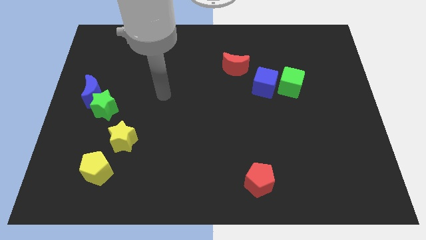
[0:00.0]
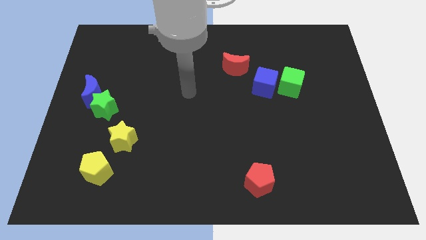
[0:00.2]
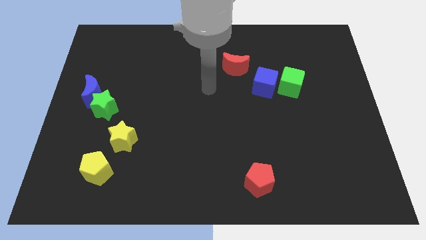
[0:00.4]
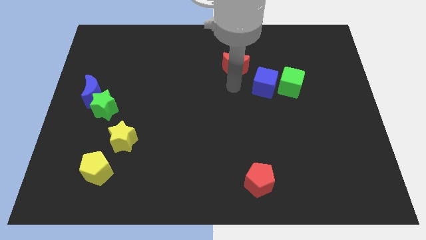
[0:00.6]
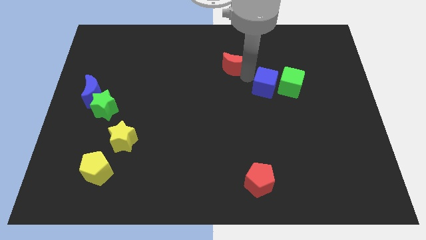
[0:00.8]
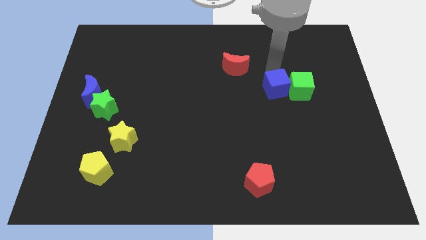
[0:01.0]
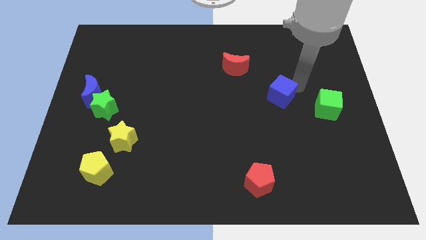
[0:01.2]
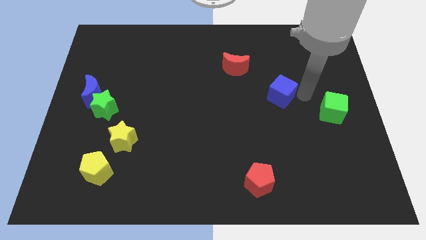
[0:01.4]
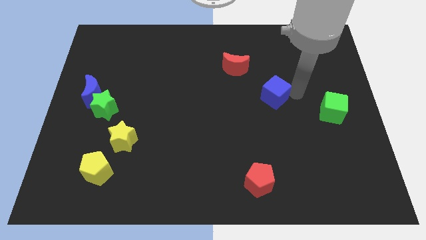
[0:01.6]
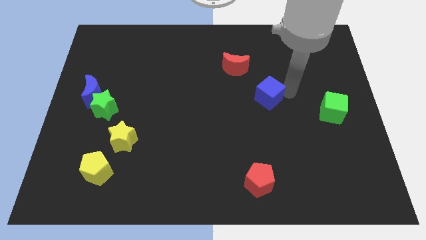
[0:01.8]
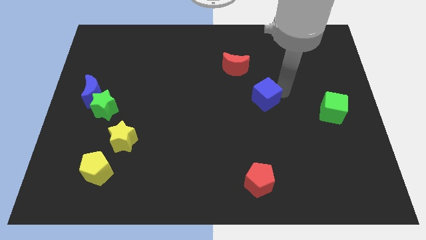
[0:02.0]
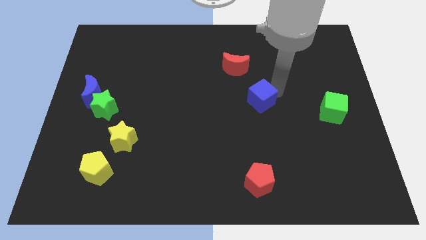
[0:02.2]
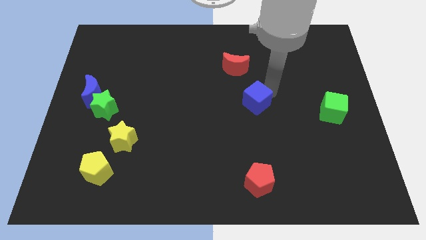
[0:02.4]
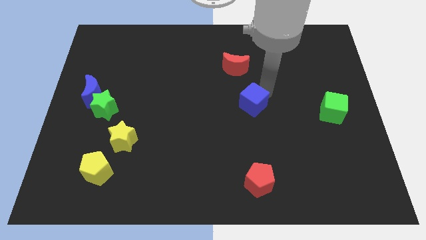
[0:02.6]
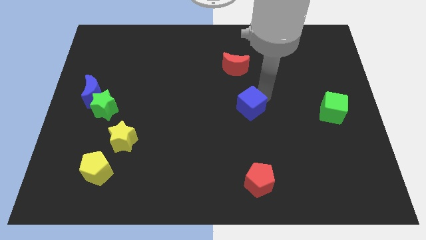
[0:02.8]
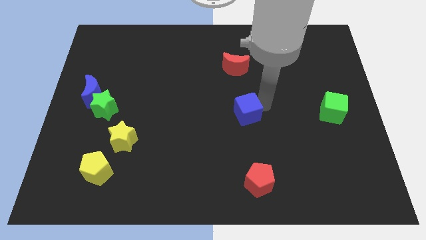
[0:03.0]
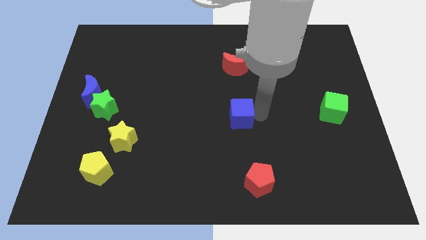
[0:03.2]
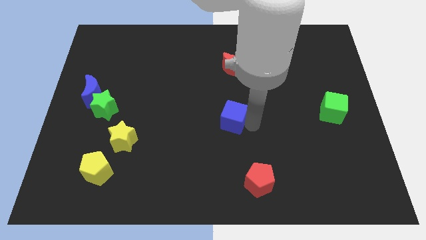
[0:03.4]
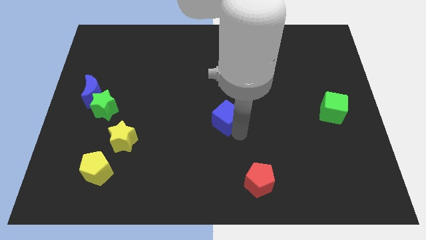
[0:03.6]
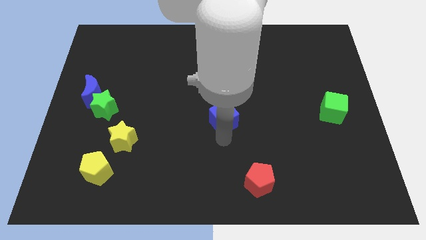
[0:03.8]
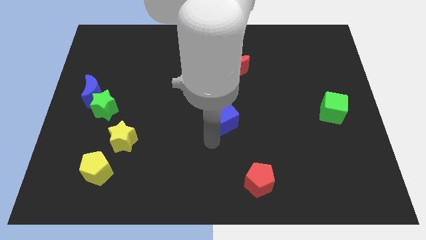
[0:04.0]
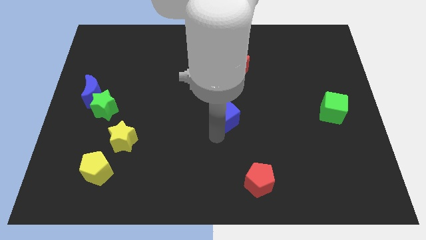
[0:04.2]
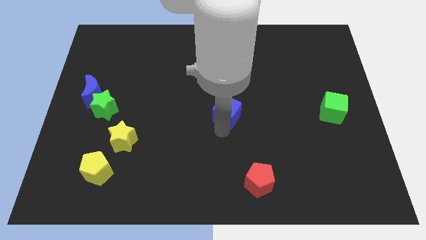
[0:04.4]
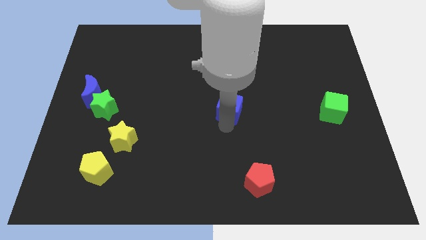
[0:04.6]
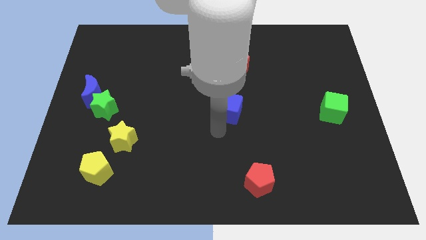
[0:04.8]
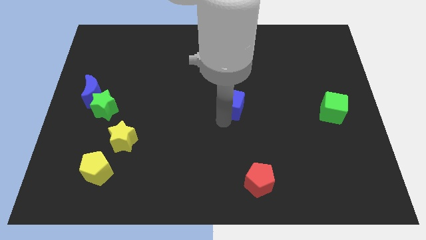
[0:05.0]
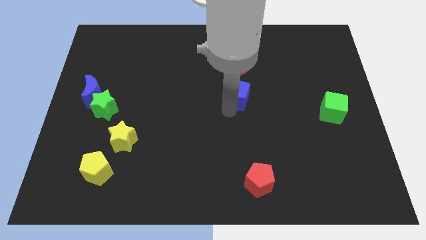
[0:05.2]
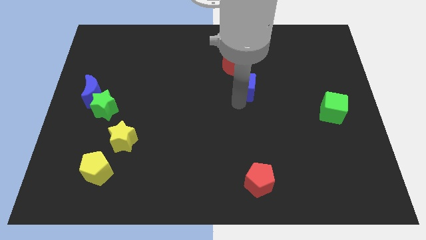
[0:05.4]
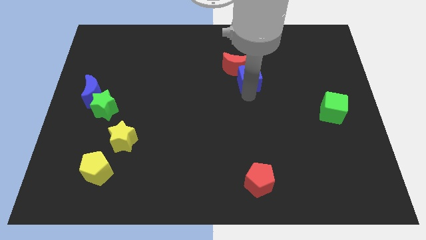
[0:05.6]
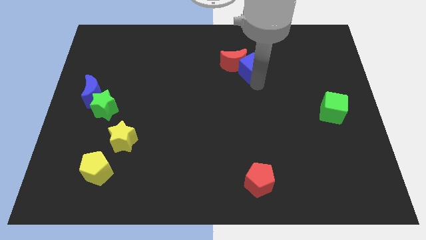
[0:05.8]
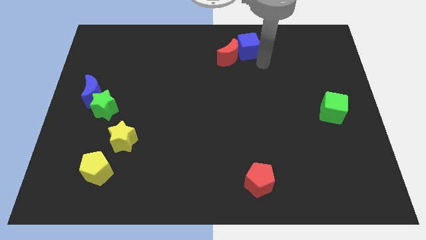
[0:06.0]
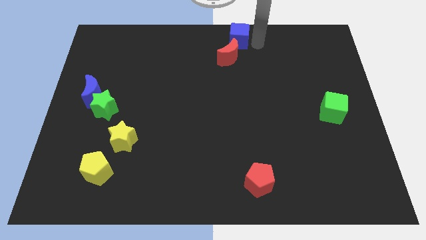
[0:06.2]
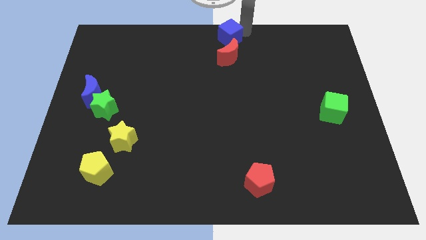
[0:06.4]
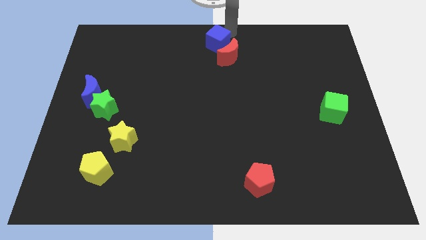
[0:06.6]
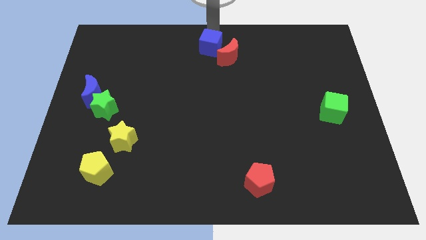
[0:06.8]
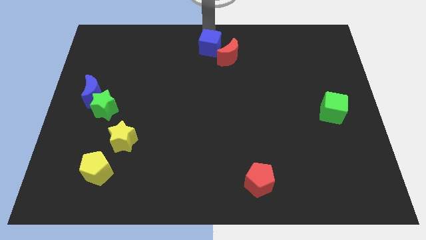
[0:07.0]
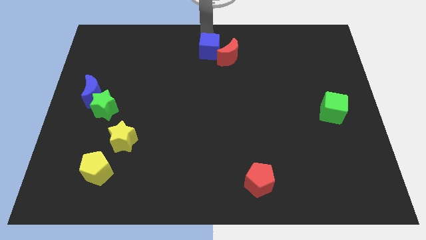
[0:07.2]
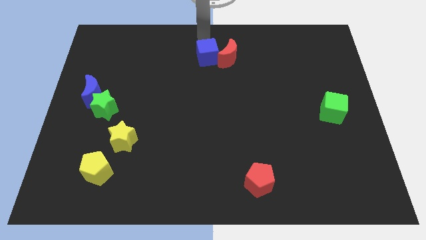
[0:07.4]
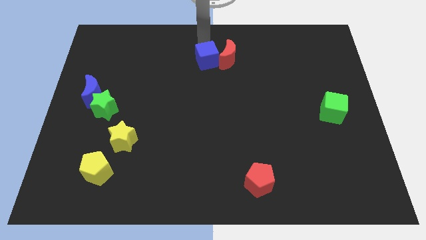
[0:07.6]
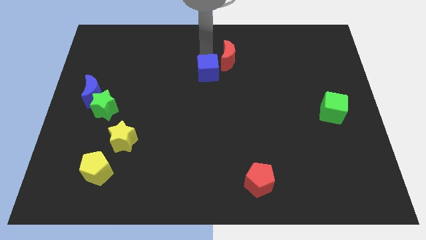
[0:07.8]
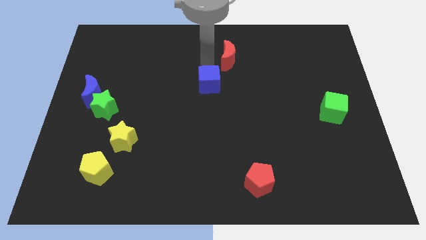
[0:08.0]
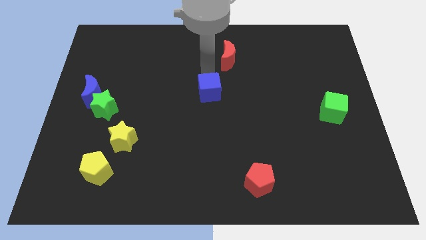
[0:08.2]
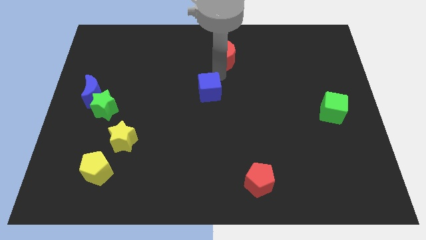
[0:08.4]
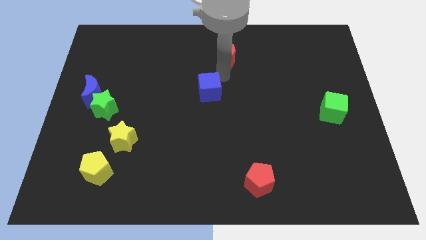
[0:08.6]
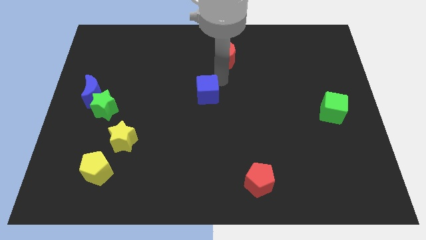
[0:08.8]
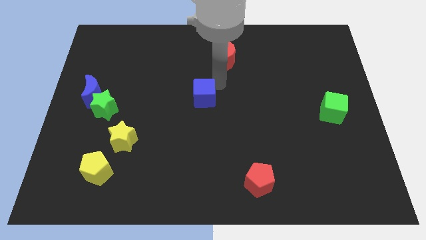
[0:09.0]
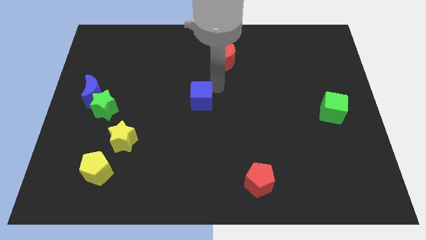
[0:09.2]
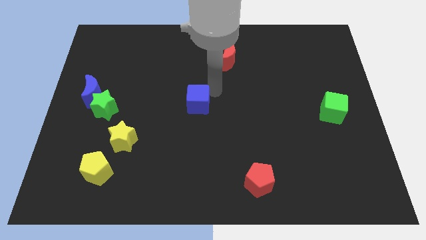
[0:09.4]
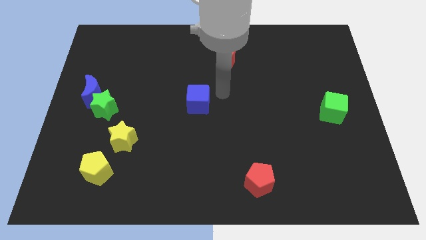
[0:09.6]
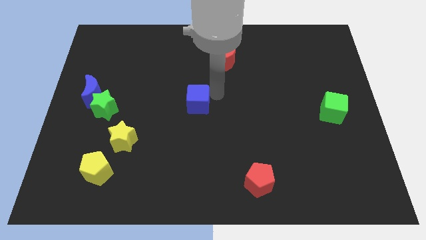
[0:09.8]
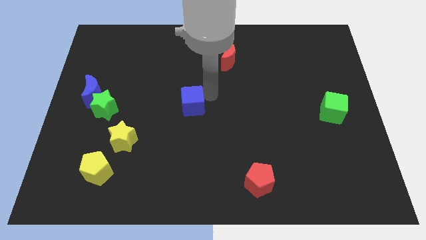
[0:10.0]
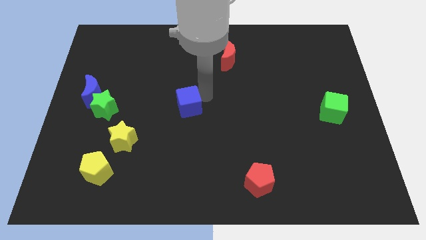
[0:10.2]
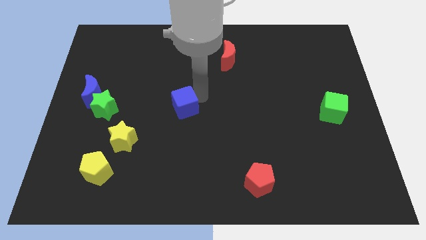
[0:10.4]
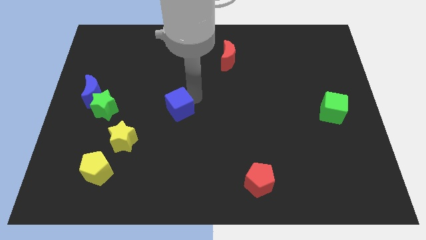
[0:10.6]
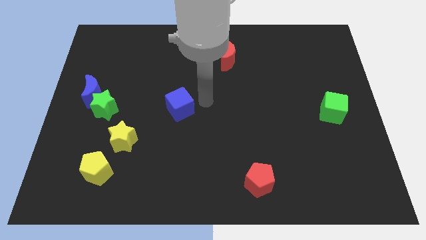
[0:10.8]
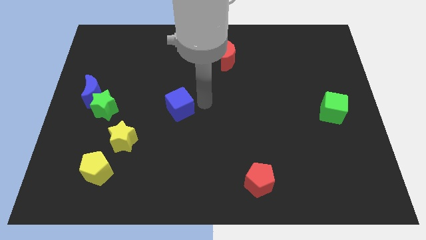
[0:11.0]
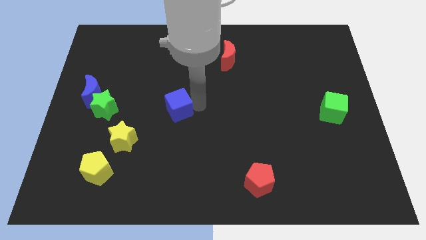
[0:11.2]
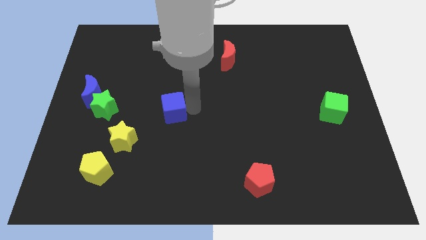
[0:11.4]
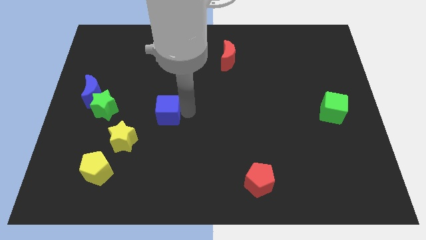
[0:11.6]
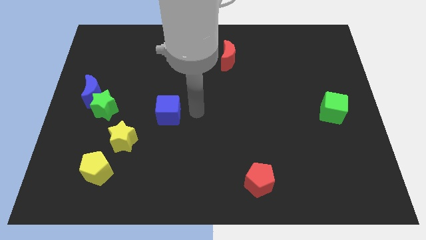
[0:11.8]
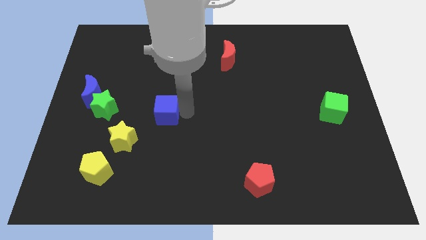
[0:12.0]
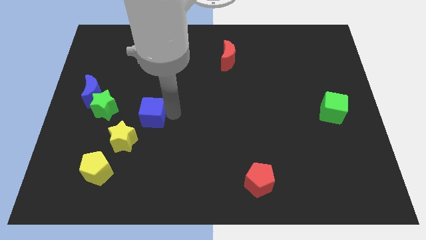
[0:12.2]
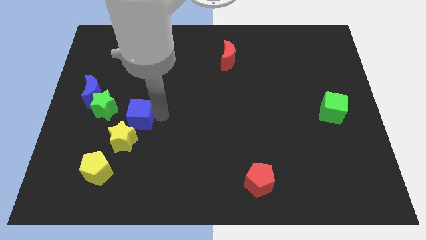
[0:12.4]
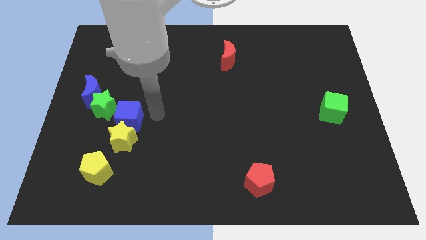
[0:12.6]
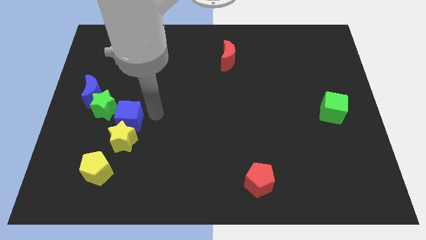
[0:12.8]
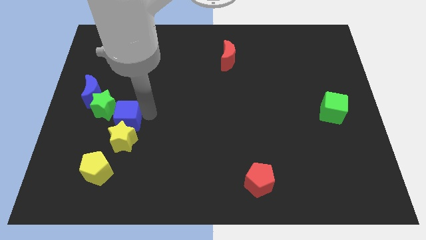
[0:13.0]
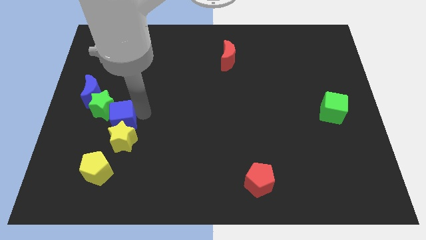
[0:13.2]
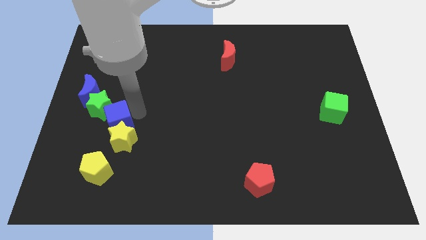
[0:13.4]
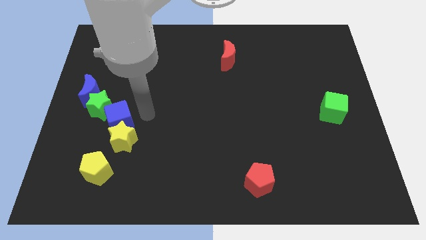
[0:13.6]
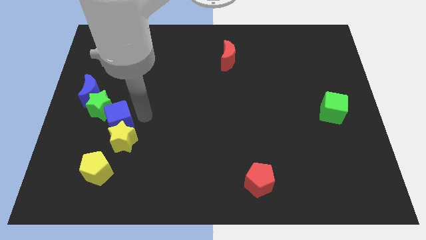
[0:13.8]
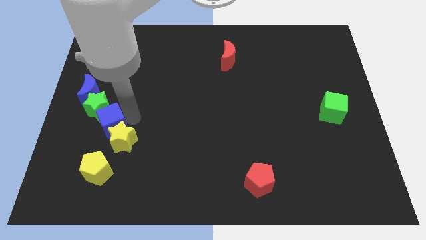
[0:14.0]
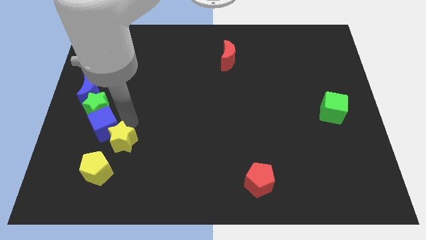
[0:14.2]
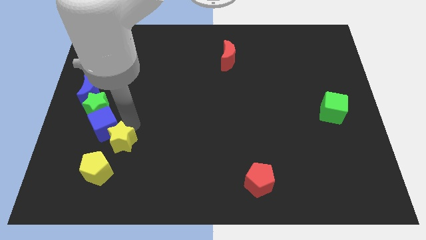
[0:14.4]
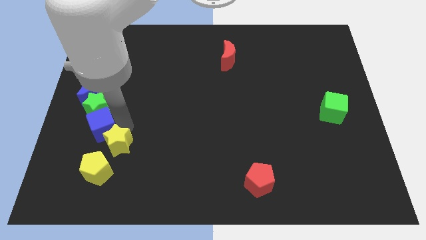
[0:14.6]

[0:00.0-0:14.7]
move the blue cube below the blue moon
